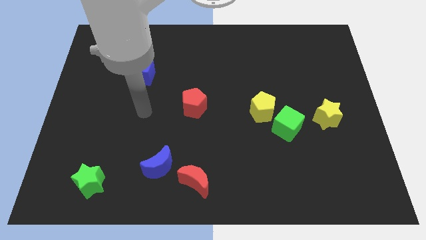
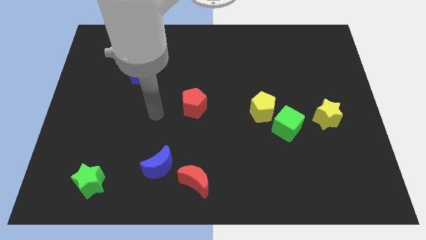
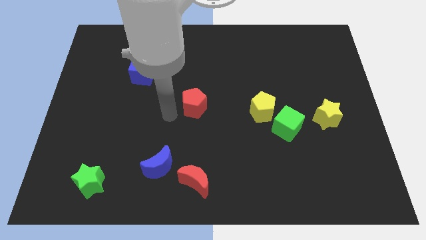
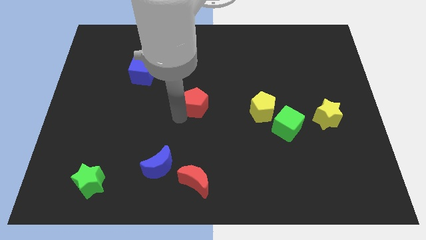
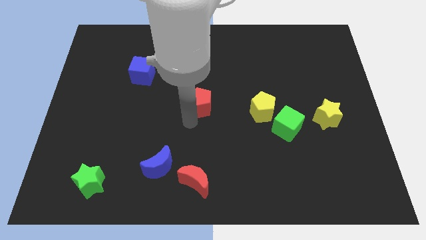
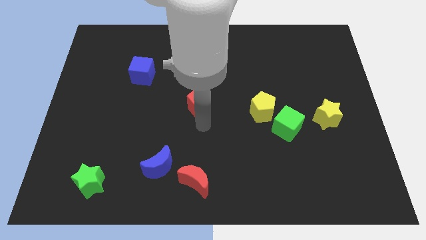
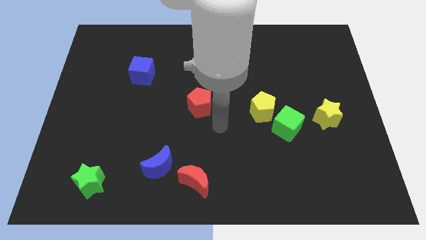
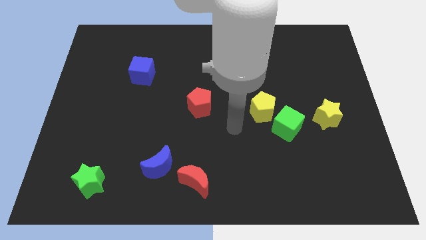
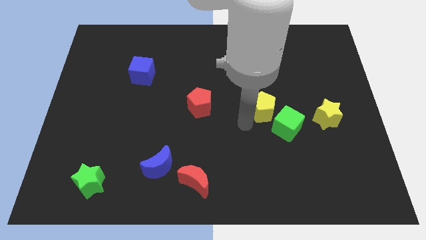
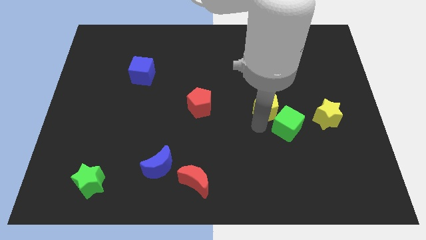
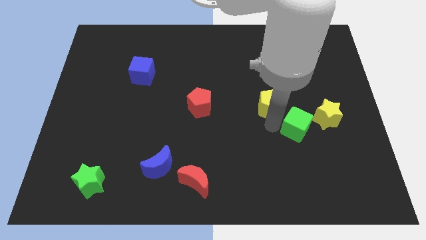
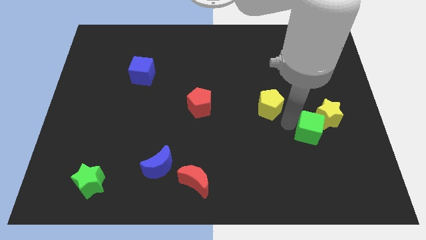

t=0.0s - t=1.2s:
pull the yellow pentagon apart from the green cube

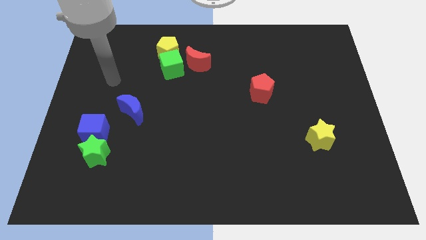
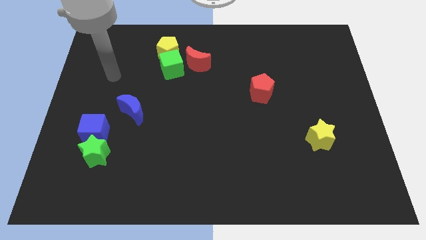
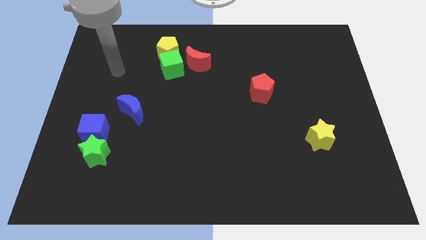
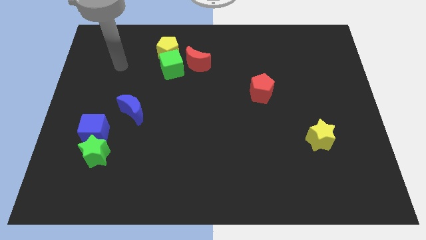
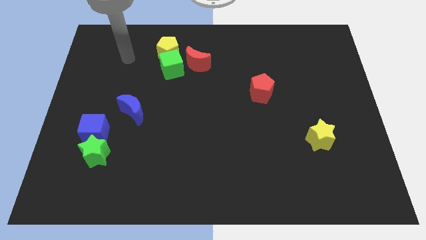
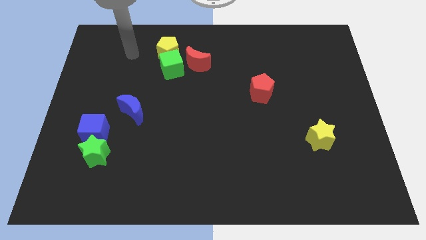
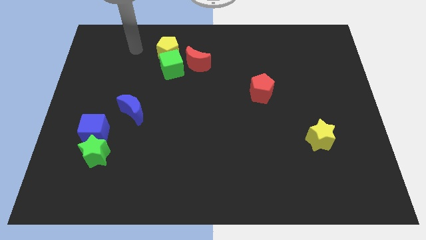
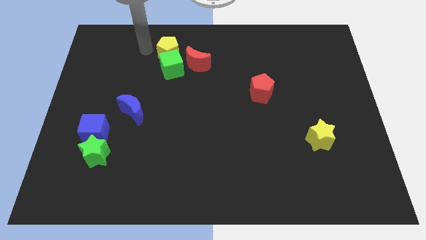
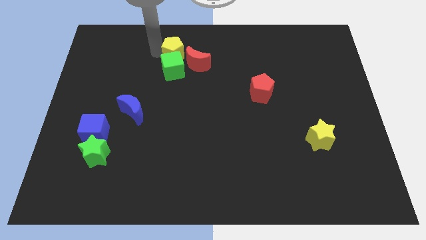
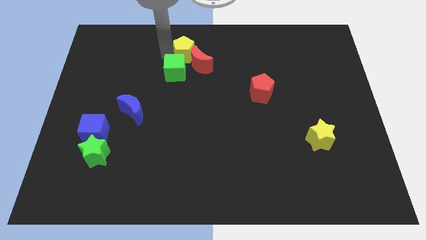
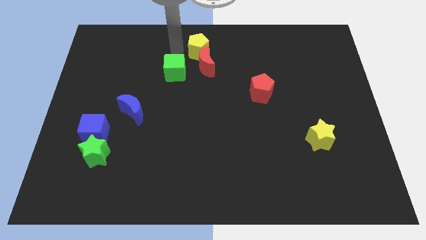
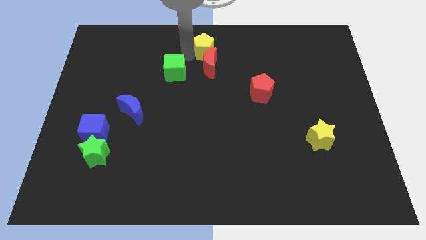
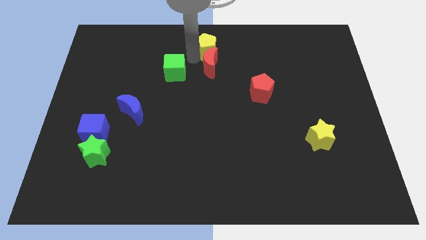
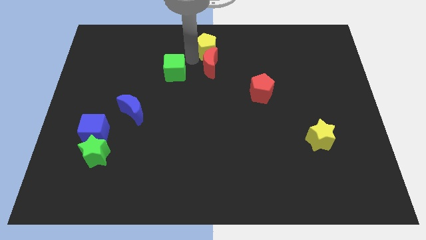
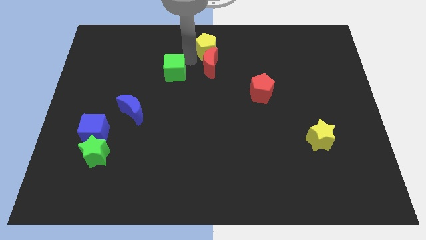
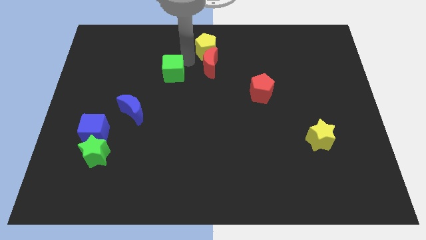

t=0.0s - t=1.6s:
pull the green cube apart from the yellow pentagon and red moon

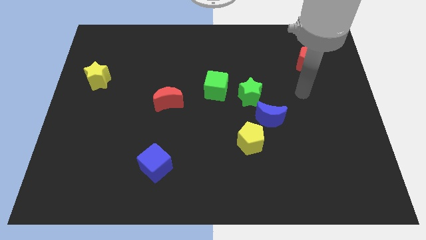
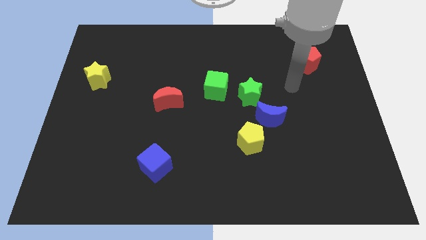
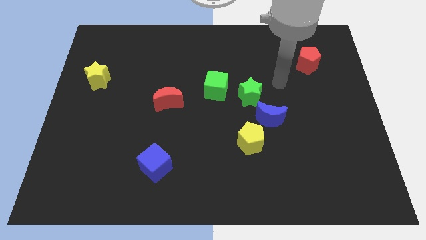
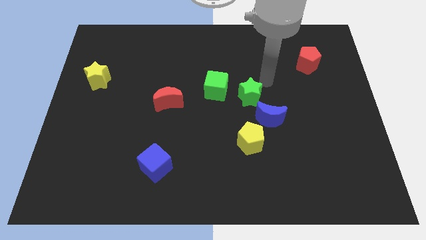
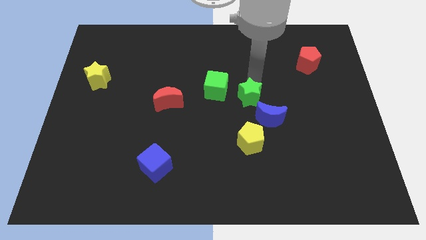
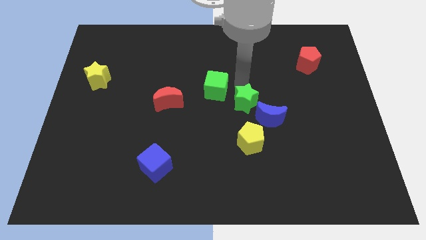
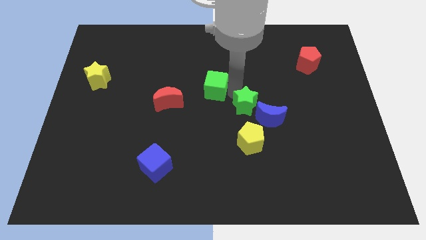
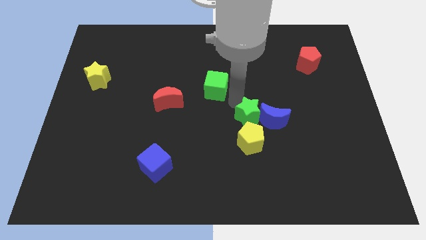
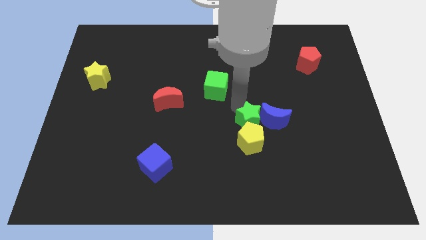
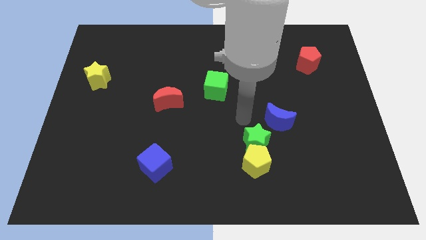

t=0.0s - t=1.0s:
separate the blue moon from the green star and yellow pentagon

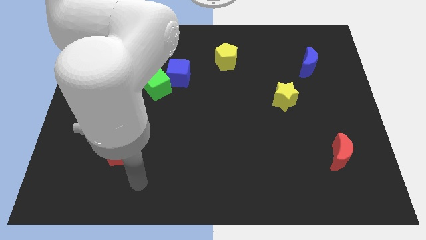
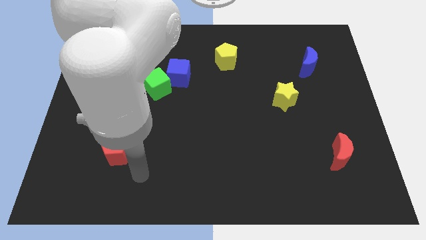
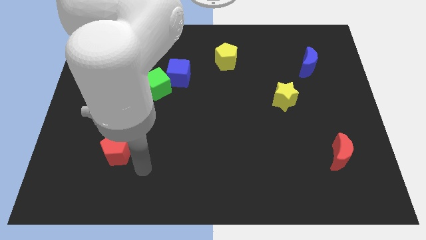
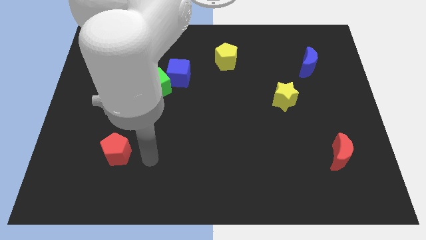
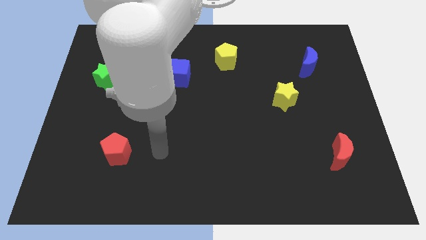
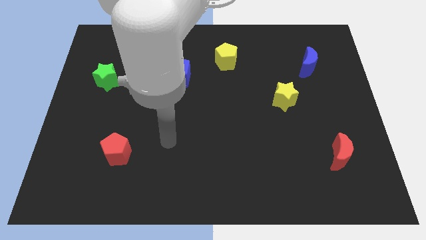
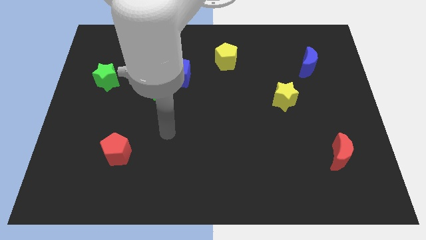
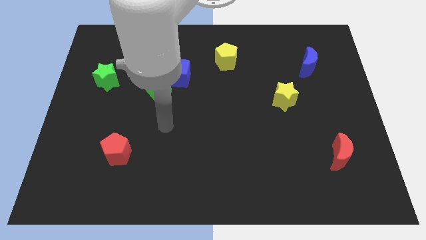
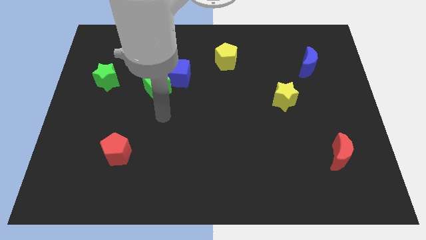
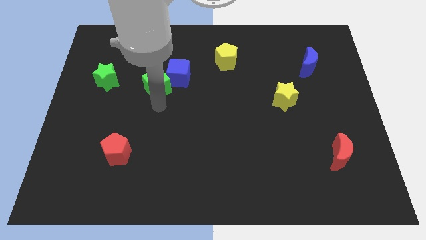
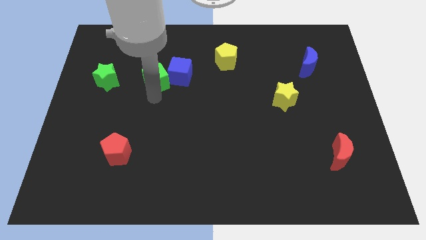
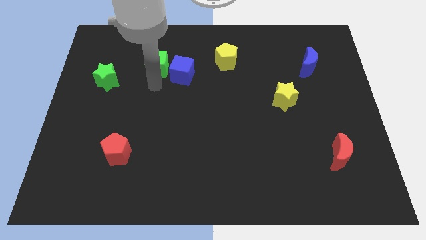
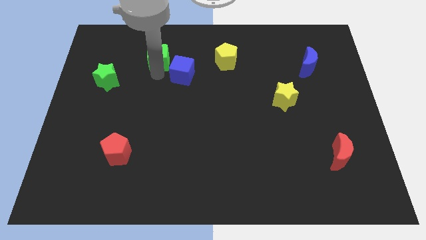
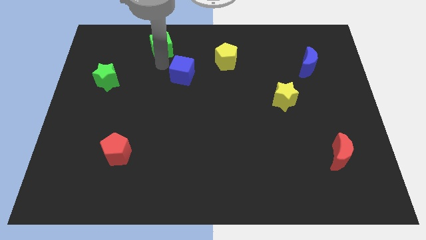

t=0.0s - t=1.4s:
move the blue cube away from the green cube

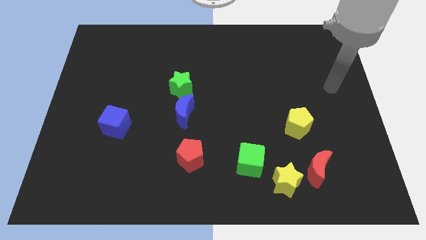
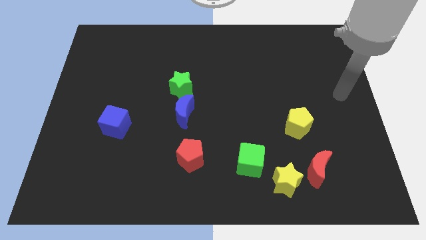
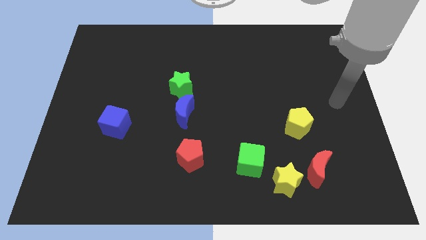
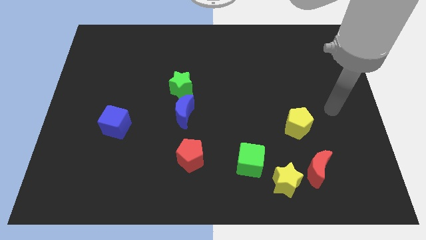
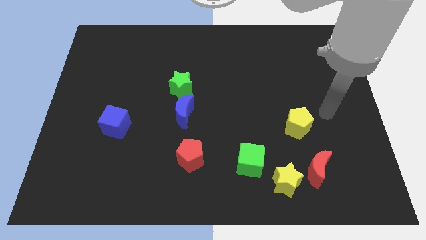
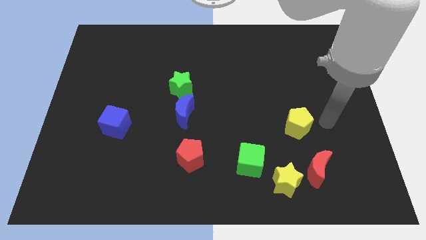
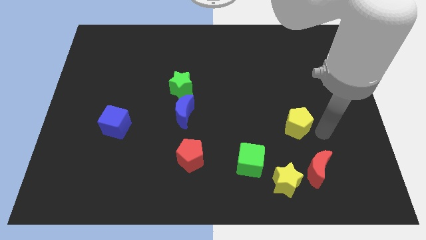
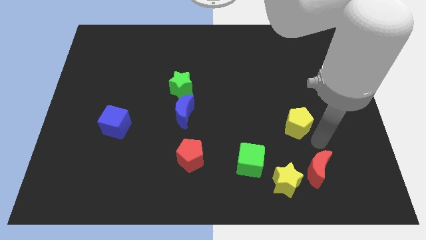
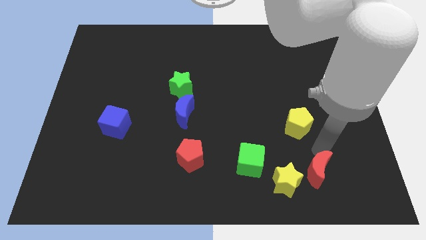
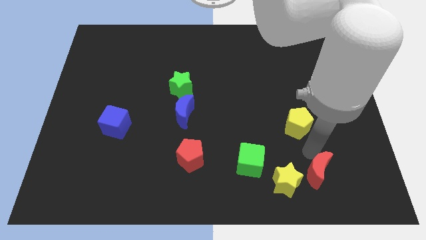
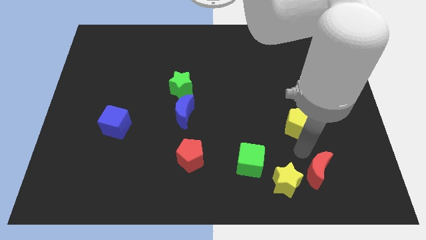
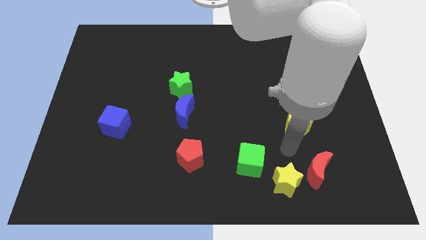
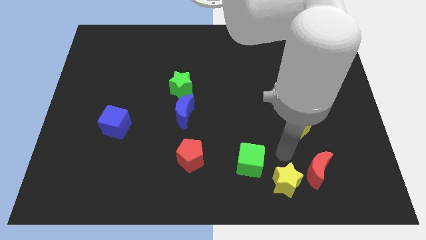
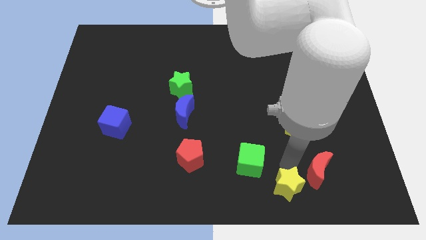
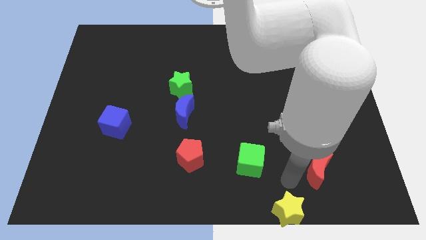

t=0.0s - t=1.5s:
move the red moon away from the yellow star

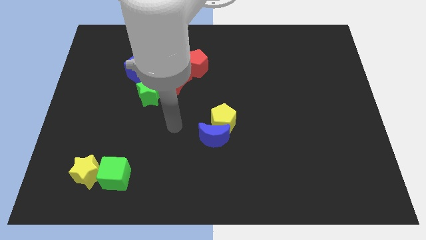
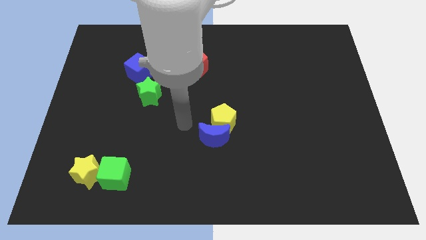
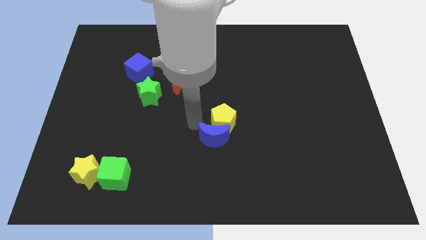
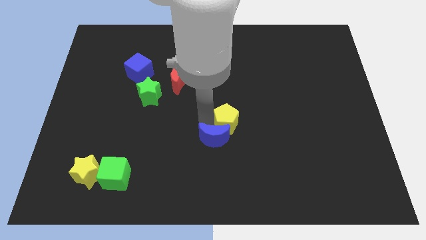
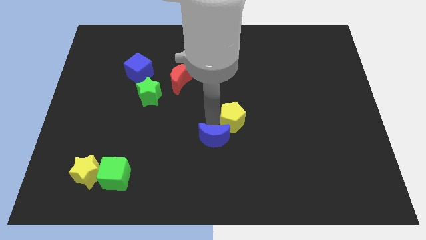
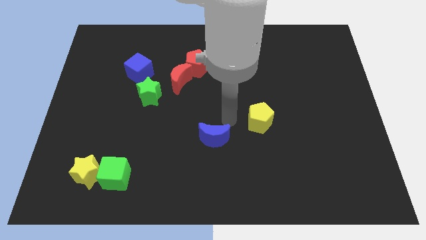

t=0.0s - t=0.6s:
separate the blue moon from the yellow pentagon

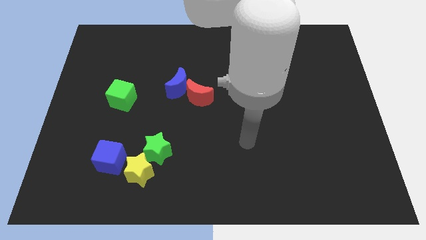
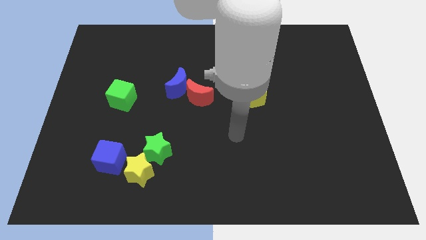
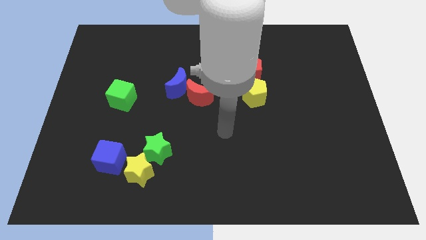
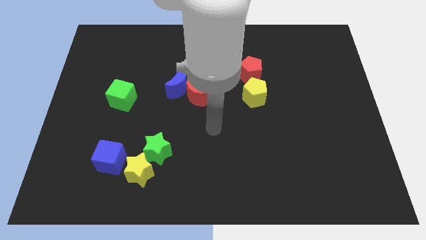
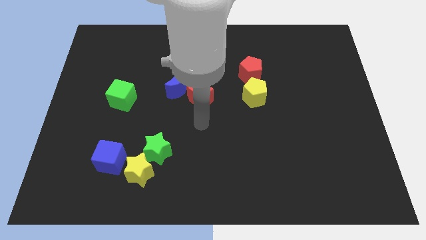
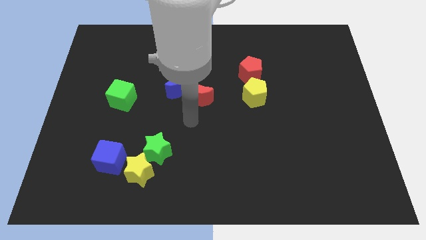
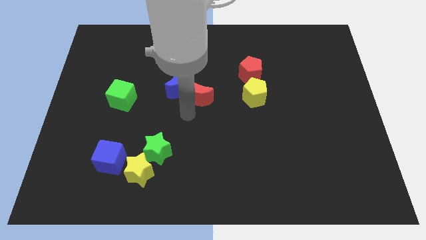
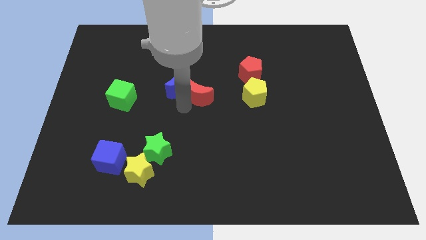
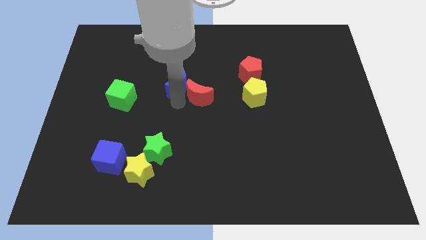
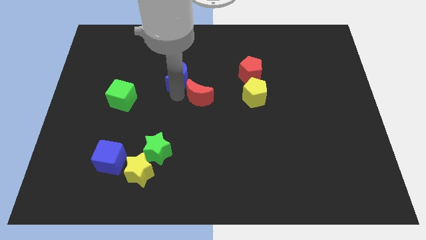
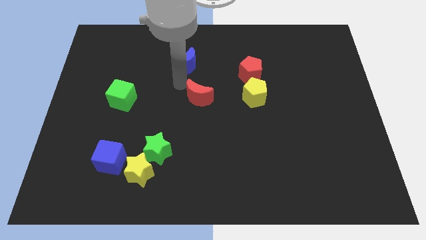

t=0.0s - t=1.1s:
move the red moon away from the blue moon

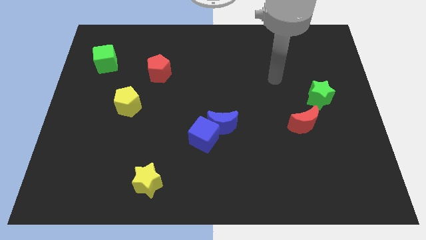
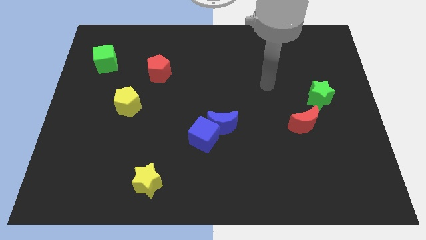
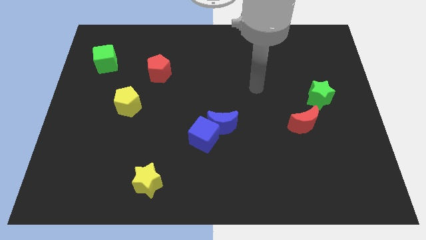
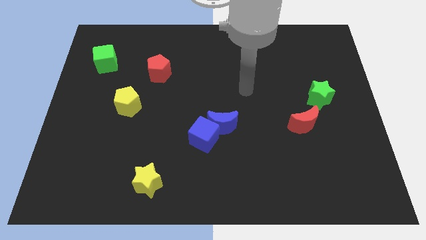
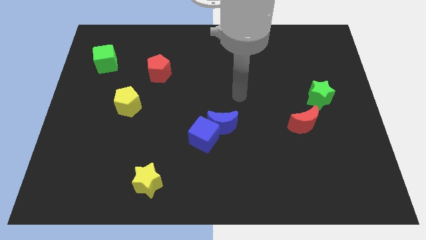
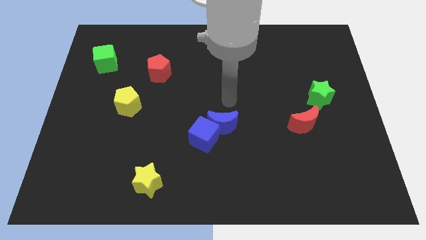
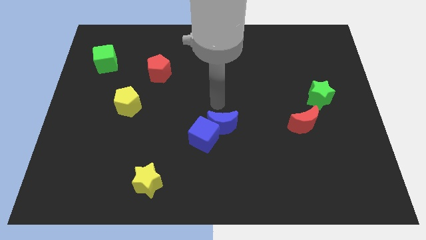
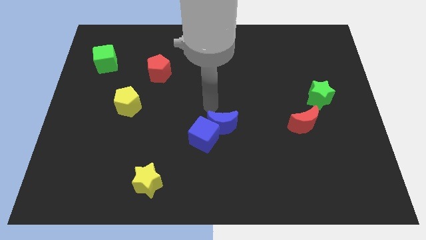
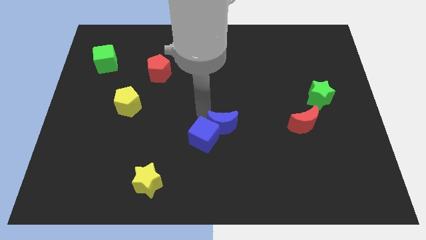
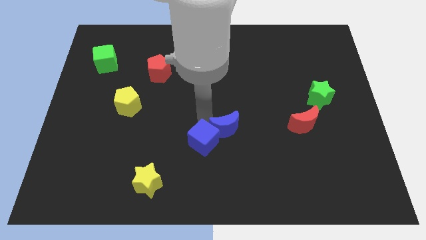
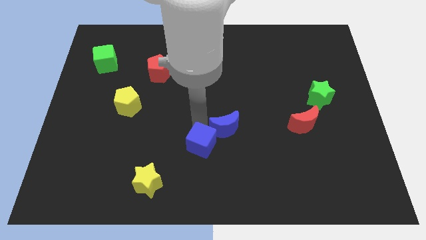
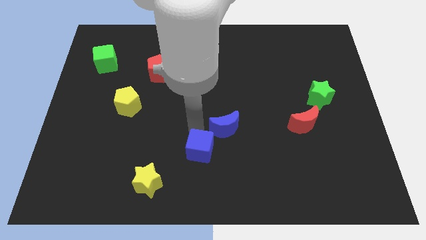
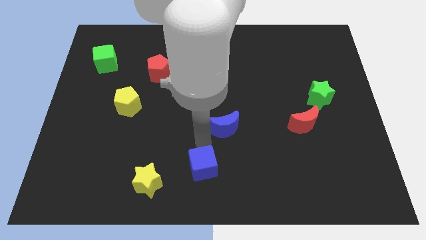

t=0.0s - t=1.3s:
separate the blue moon from the blue cube
